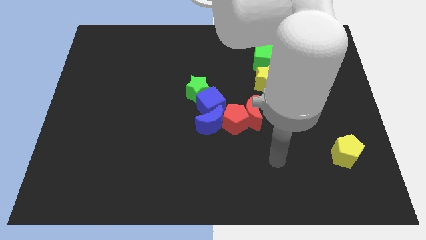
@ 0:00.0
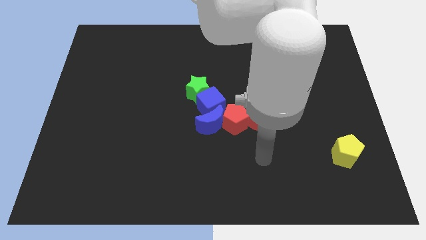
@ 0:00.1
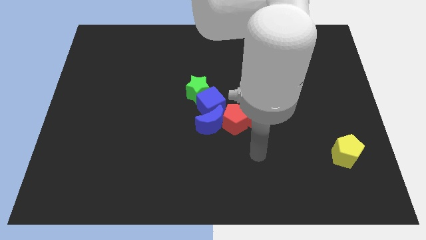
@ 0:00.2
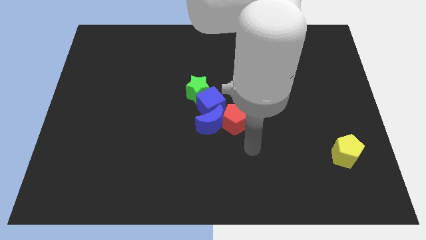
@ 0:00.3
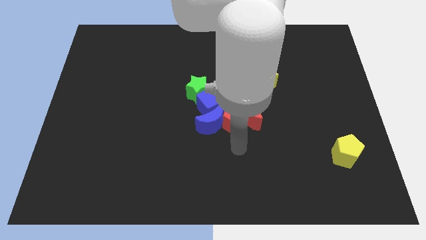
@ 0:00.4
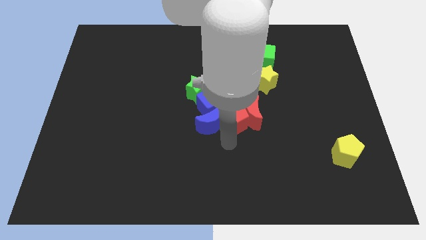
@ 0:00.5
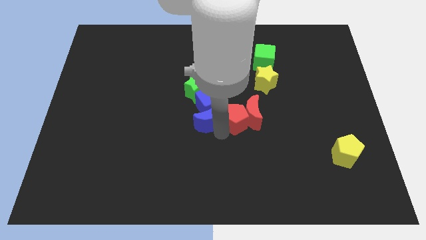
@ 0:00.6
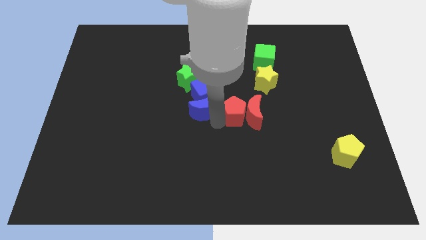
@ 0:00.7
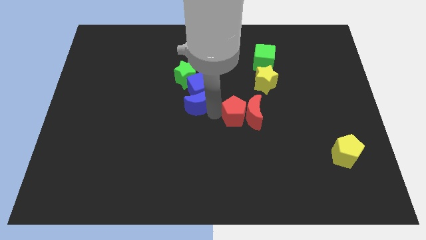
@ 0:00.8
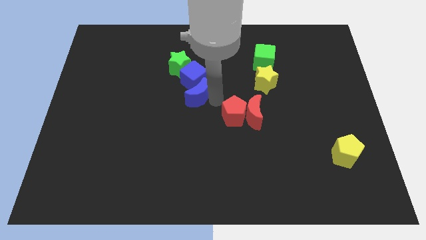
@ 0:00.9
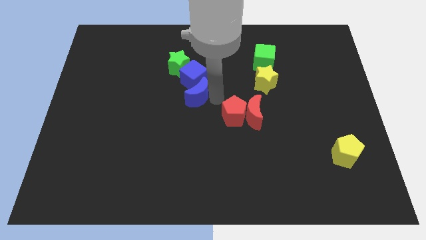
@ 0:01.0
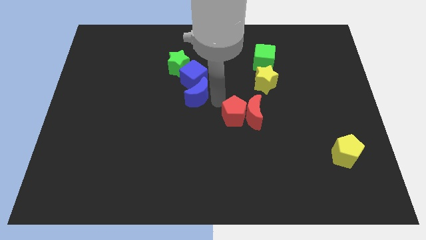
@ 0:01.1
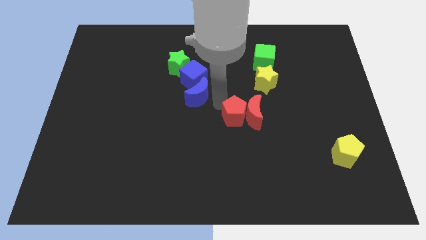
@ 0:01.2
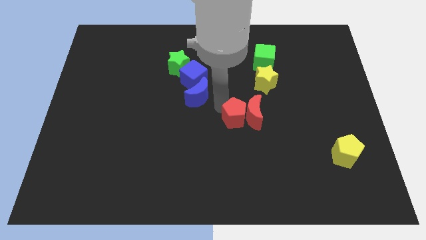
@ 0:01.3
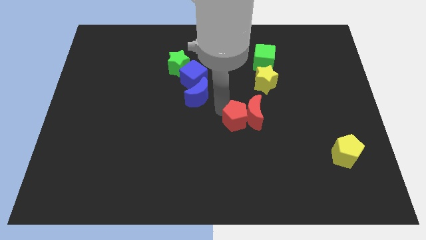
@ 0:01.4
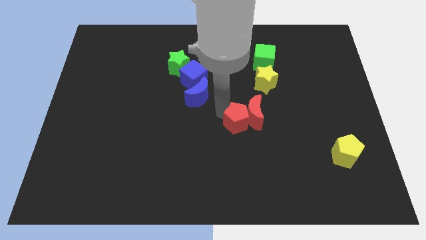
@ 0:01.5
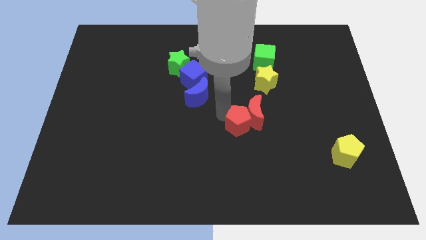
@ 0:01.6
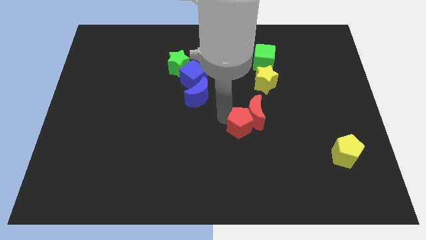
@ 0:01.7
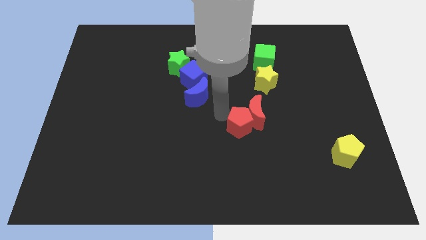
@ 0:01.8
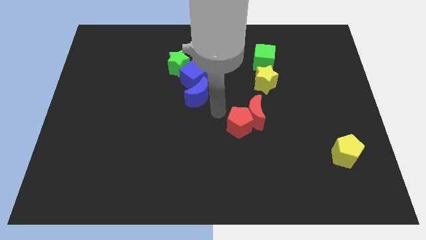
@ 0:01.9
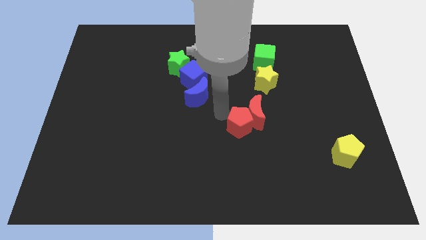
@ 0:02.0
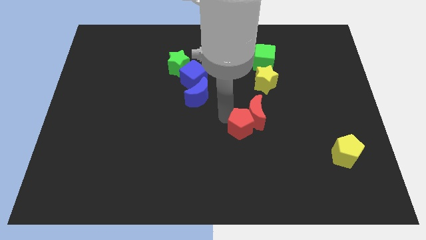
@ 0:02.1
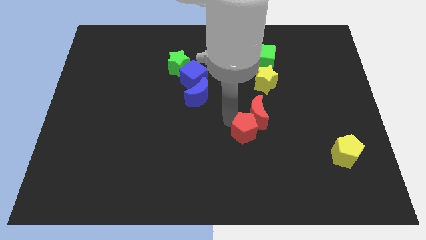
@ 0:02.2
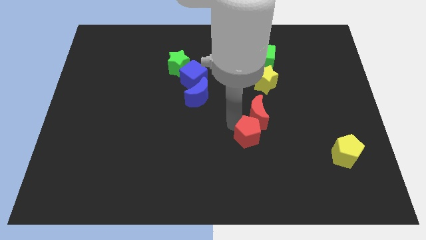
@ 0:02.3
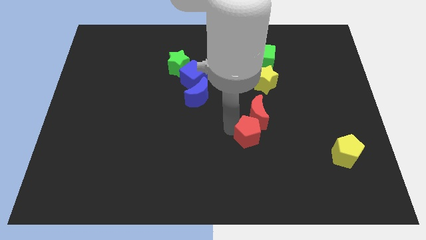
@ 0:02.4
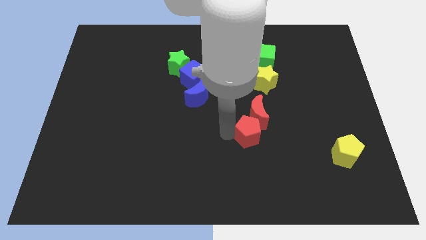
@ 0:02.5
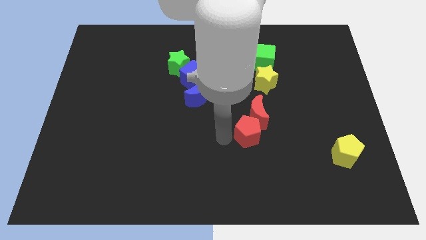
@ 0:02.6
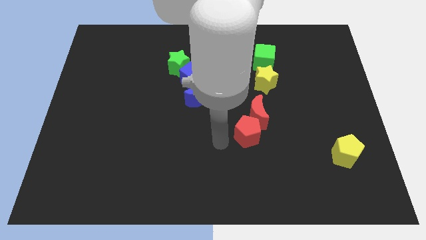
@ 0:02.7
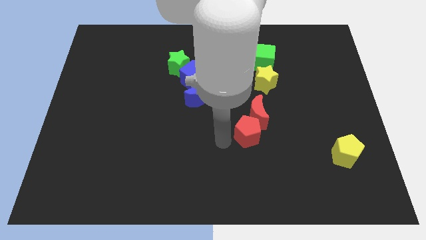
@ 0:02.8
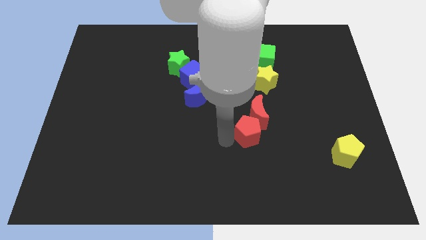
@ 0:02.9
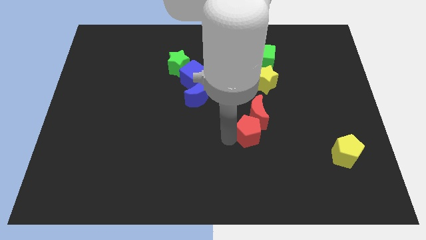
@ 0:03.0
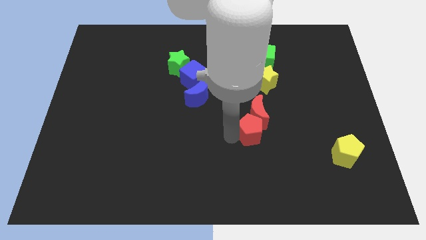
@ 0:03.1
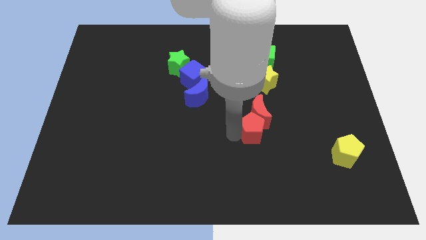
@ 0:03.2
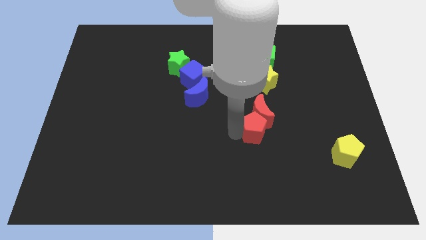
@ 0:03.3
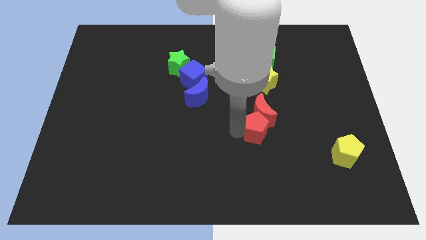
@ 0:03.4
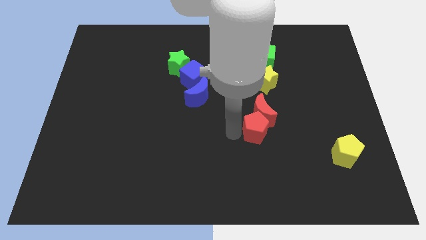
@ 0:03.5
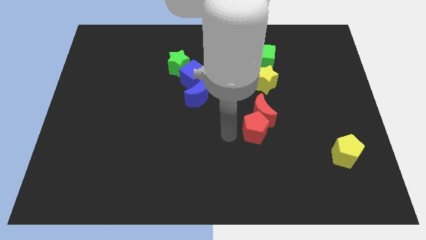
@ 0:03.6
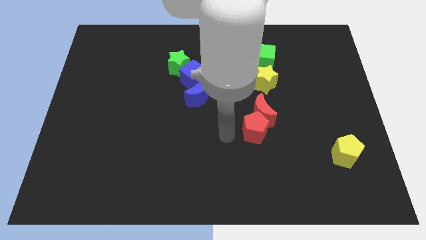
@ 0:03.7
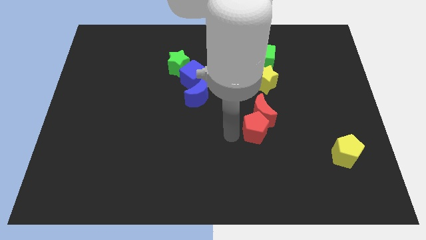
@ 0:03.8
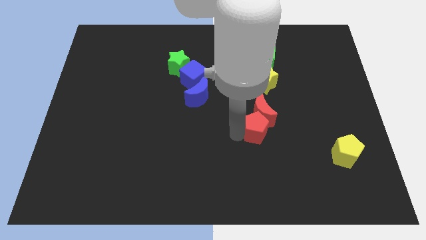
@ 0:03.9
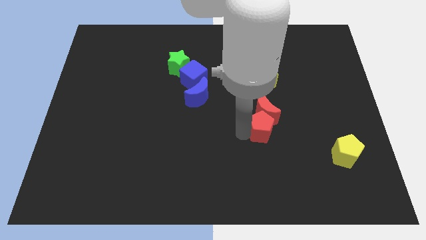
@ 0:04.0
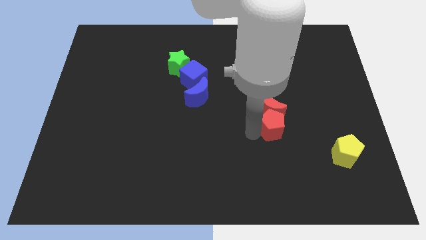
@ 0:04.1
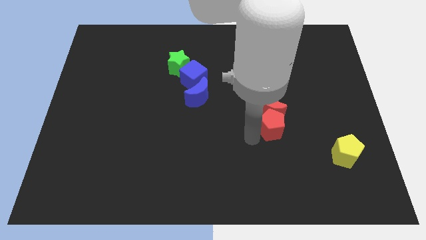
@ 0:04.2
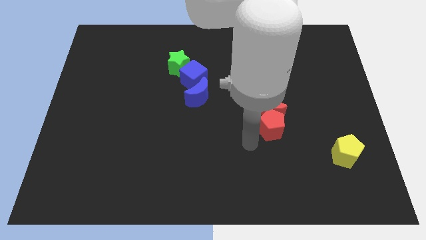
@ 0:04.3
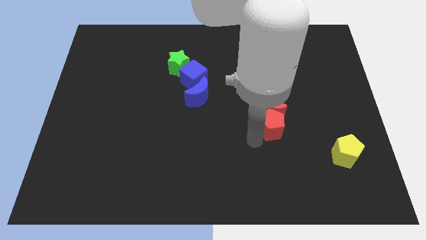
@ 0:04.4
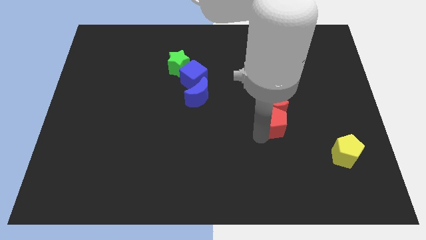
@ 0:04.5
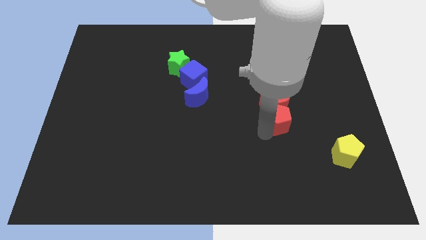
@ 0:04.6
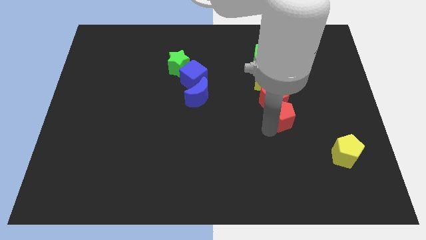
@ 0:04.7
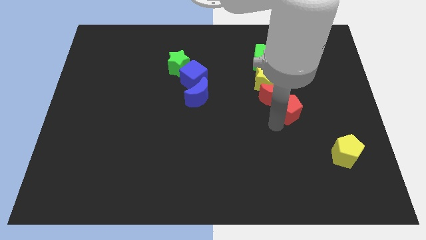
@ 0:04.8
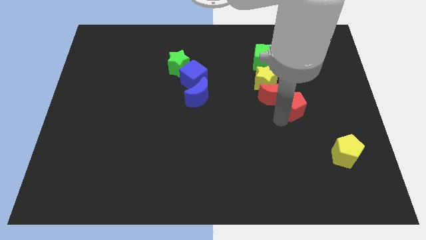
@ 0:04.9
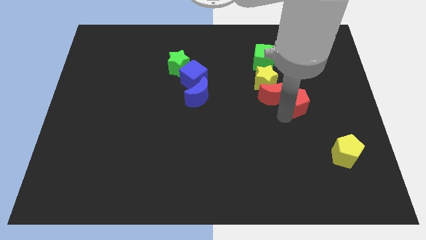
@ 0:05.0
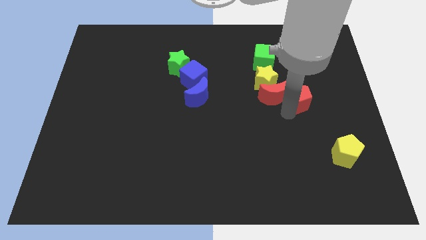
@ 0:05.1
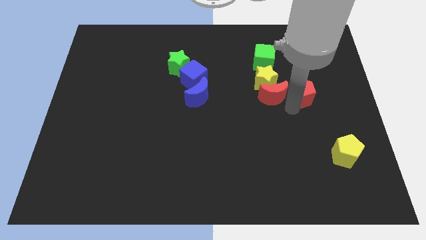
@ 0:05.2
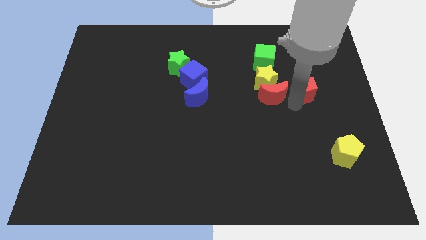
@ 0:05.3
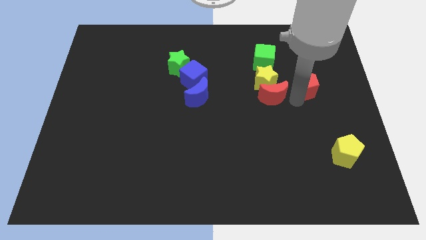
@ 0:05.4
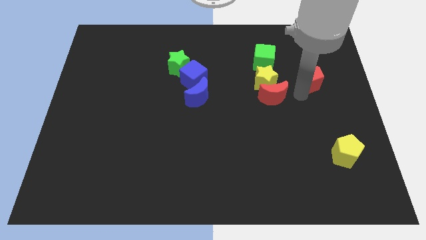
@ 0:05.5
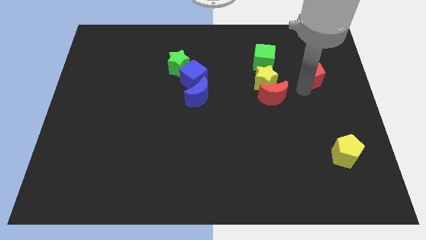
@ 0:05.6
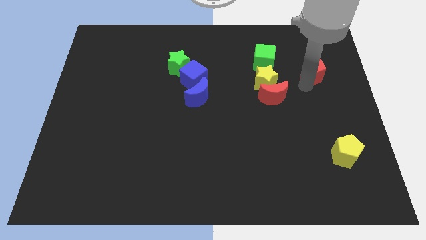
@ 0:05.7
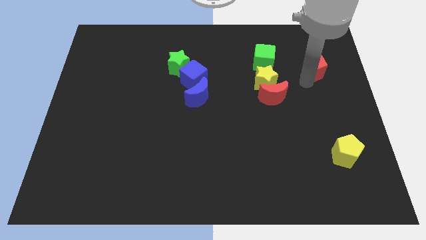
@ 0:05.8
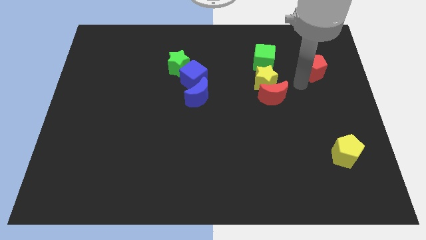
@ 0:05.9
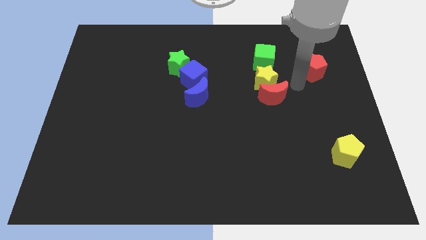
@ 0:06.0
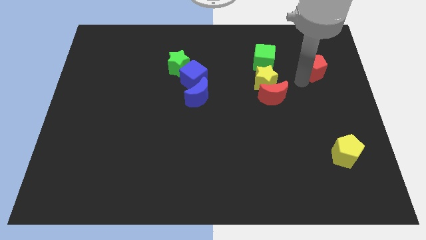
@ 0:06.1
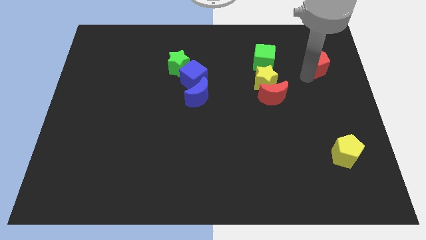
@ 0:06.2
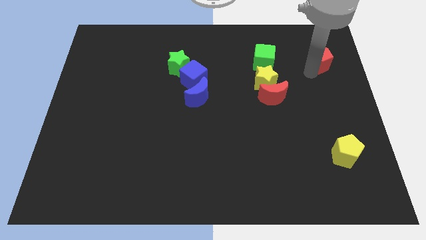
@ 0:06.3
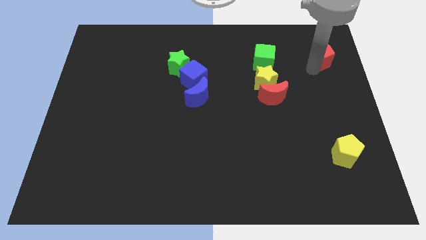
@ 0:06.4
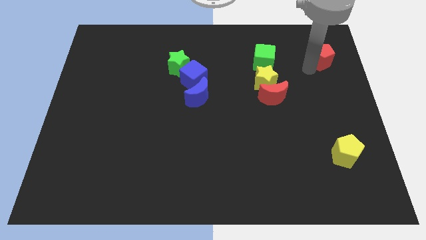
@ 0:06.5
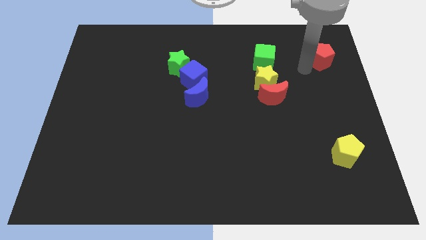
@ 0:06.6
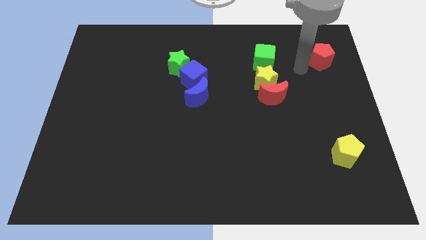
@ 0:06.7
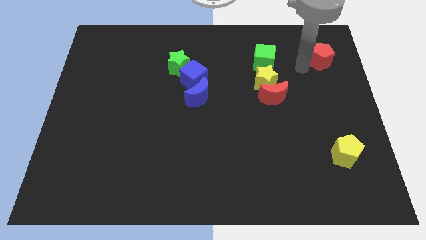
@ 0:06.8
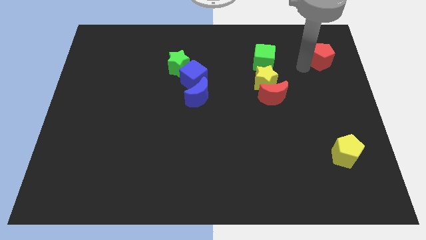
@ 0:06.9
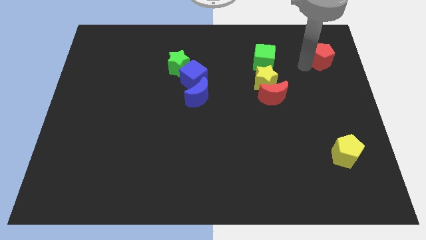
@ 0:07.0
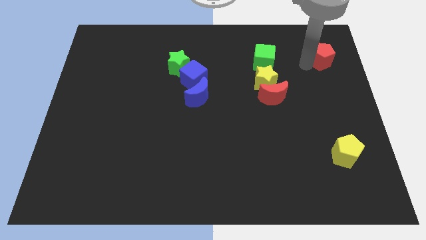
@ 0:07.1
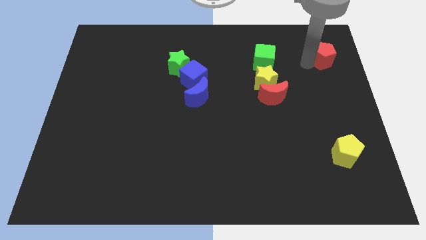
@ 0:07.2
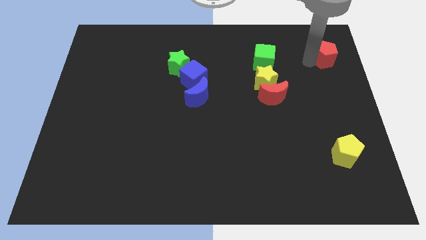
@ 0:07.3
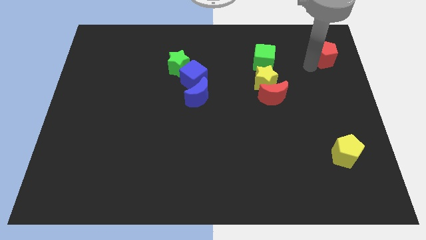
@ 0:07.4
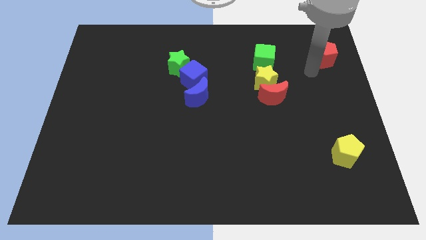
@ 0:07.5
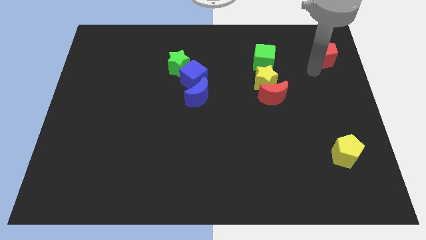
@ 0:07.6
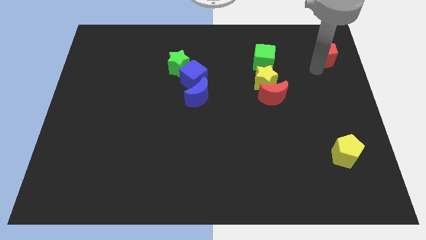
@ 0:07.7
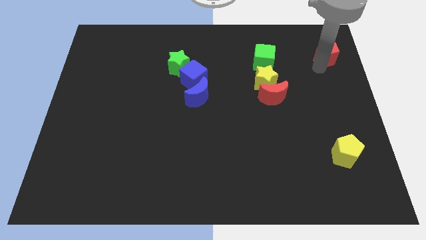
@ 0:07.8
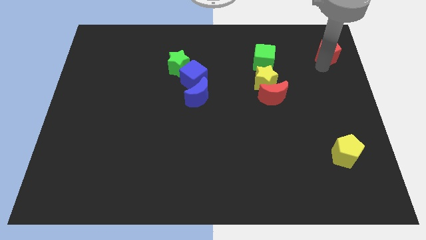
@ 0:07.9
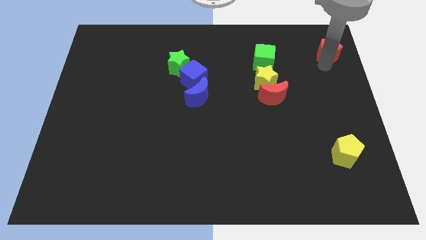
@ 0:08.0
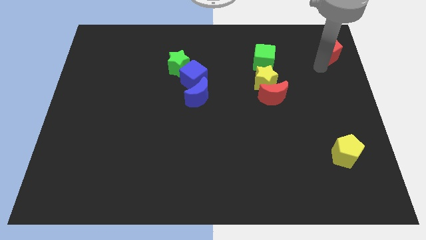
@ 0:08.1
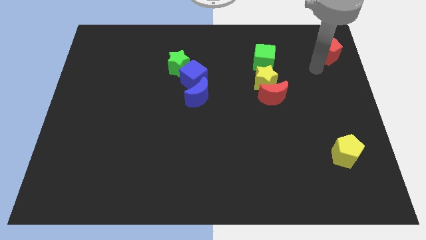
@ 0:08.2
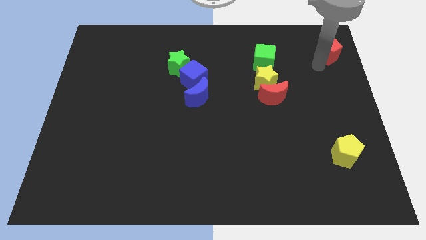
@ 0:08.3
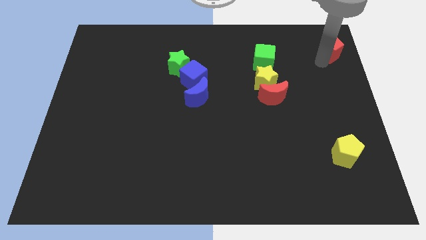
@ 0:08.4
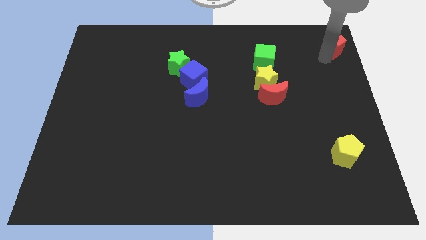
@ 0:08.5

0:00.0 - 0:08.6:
put the red pentagon to the top right
